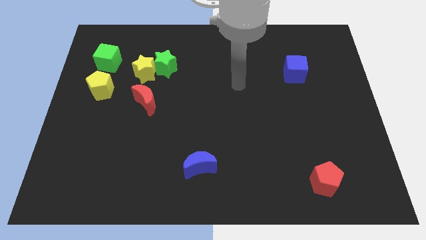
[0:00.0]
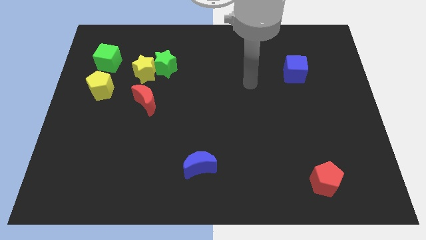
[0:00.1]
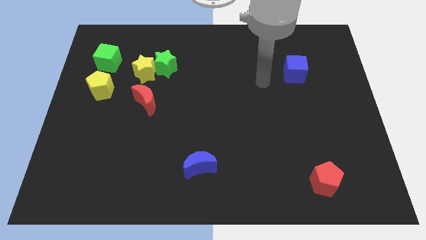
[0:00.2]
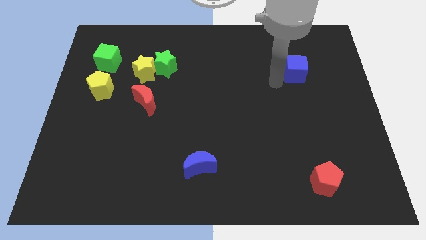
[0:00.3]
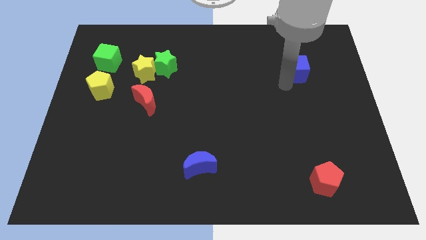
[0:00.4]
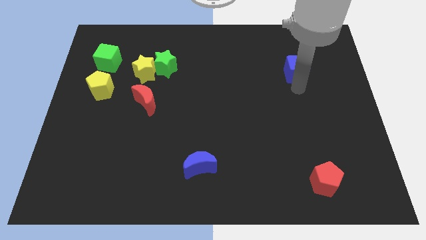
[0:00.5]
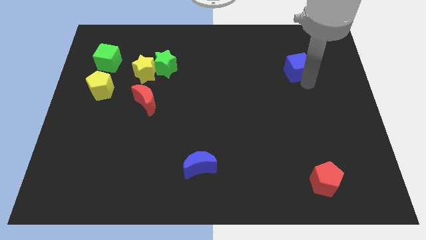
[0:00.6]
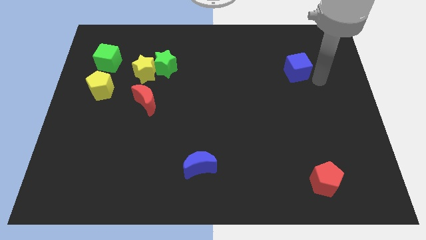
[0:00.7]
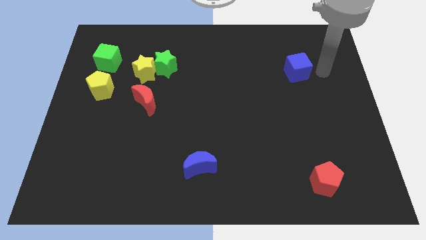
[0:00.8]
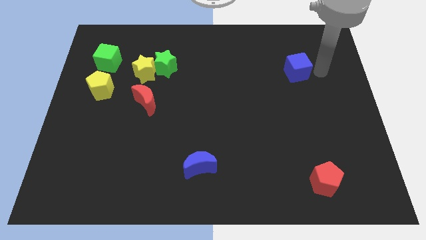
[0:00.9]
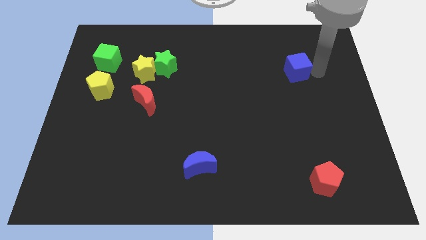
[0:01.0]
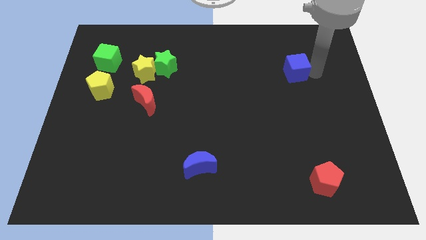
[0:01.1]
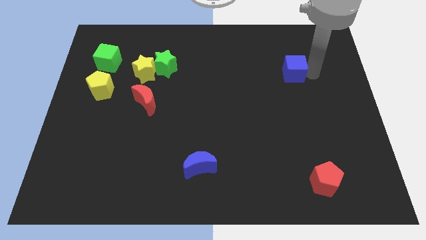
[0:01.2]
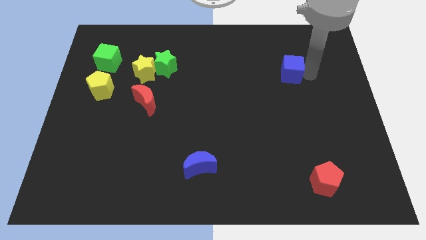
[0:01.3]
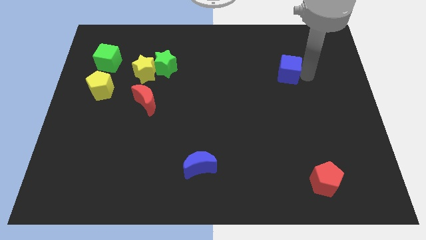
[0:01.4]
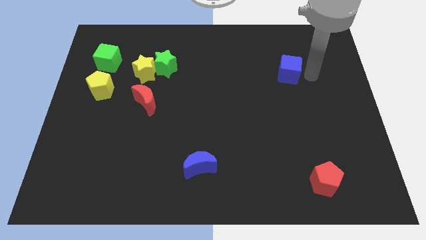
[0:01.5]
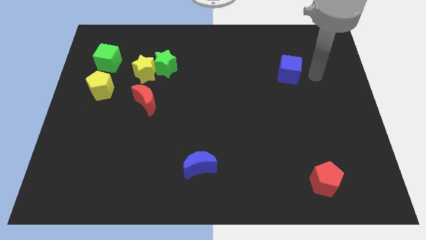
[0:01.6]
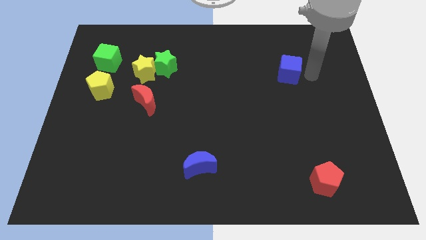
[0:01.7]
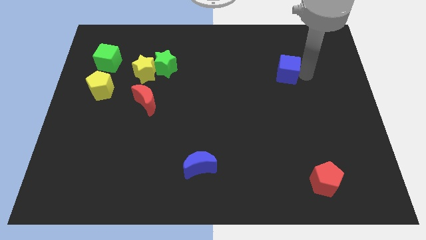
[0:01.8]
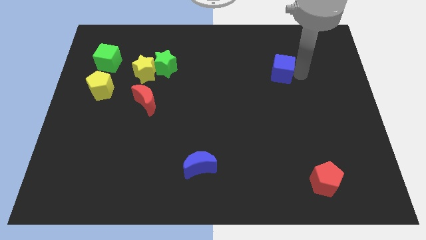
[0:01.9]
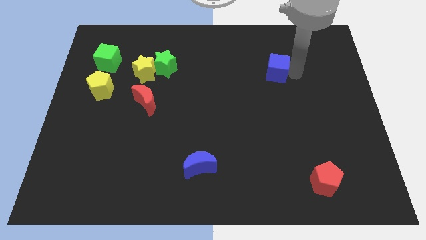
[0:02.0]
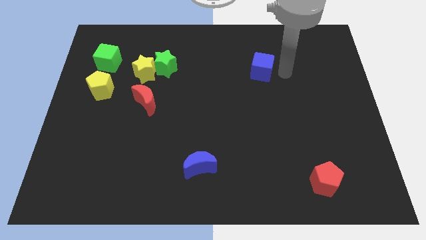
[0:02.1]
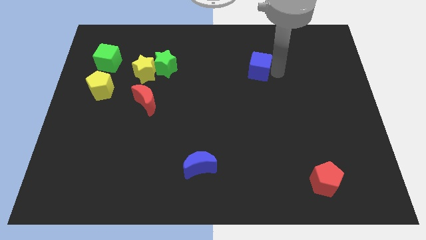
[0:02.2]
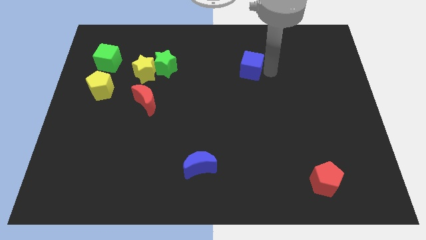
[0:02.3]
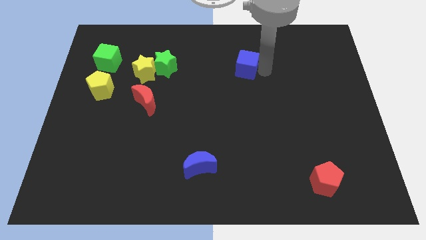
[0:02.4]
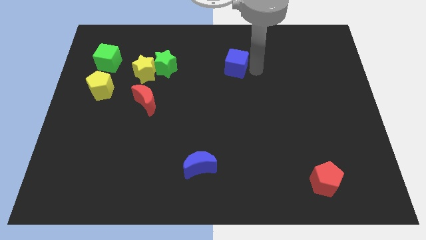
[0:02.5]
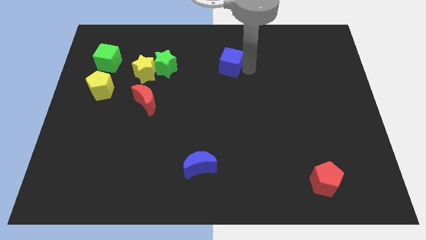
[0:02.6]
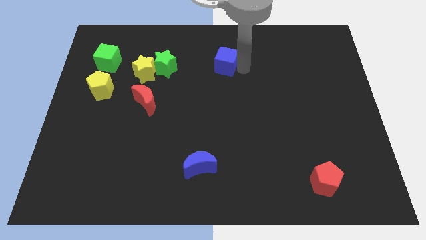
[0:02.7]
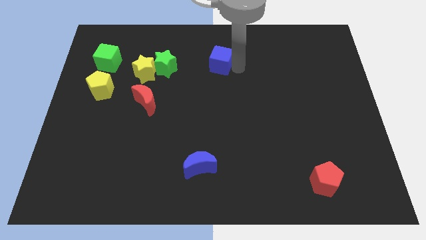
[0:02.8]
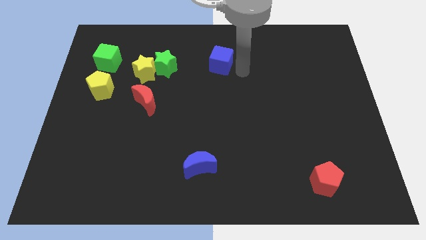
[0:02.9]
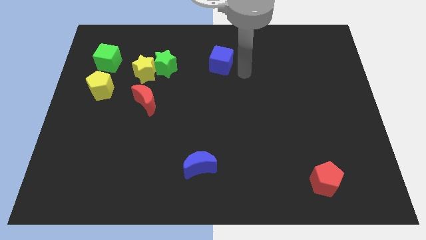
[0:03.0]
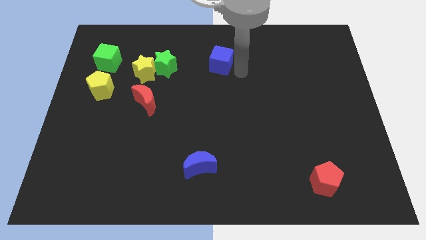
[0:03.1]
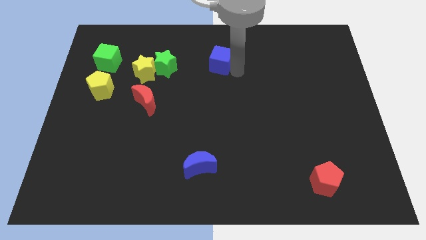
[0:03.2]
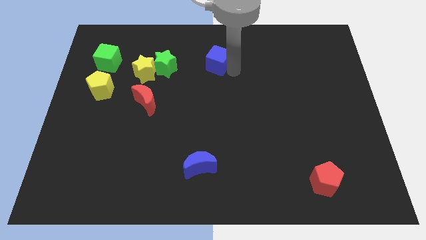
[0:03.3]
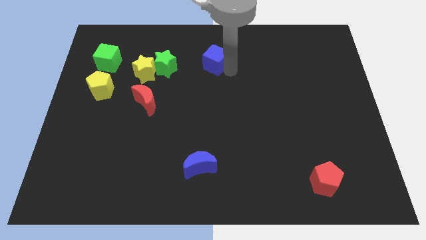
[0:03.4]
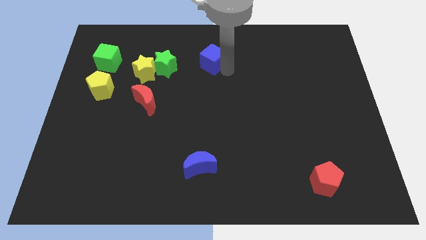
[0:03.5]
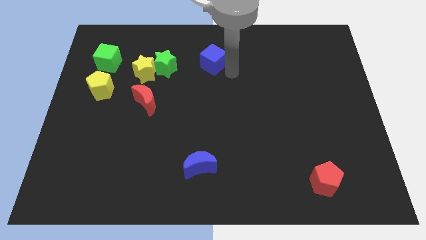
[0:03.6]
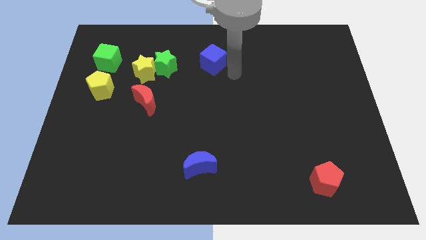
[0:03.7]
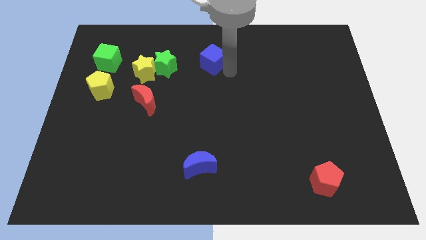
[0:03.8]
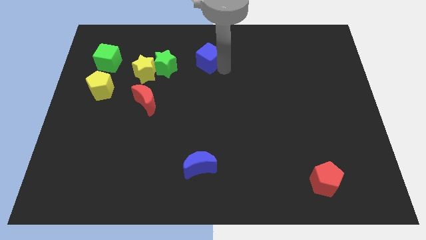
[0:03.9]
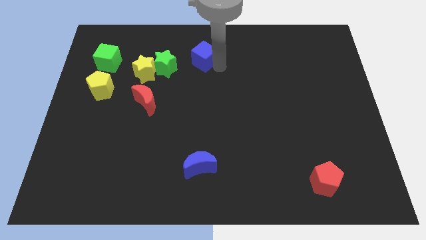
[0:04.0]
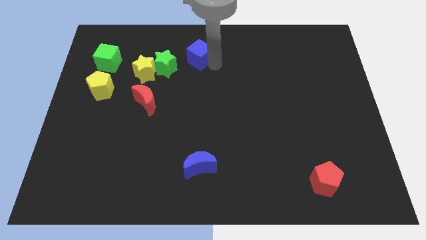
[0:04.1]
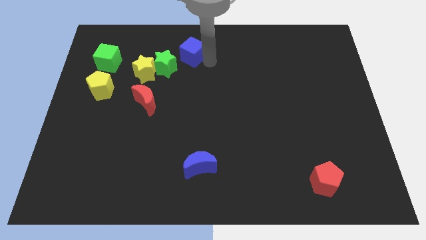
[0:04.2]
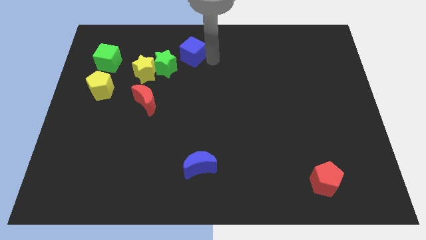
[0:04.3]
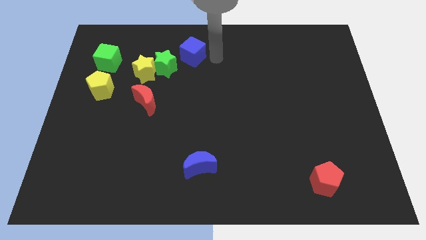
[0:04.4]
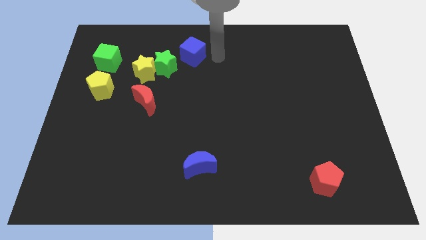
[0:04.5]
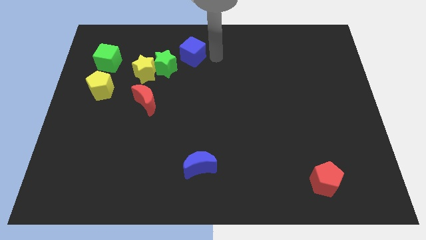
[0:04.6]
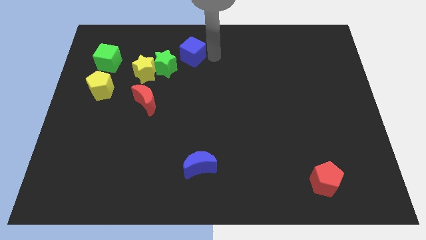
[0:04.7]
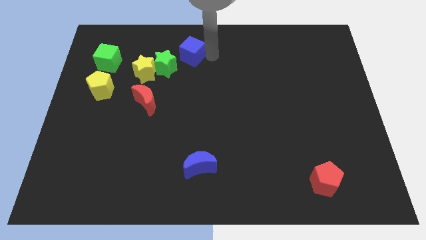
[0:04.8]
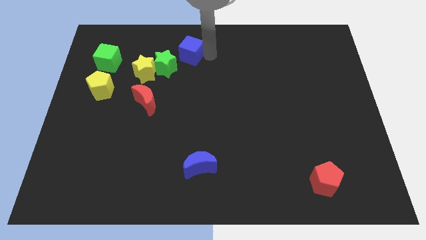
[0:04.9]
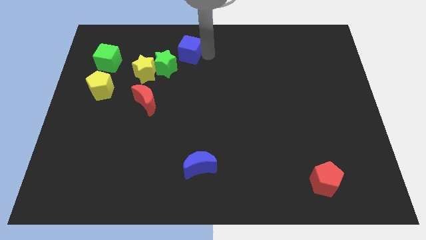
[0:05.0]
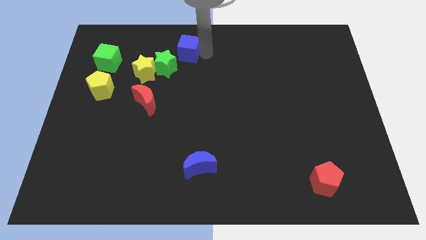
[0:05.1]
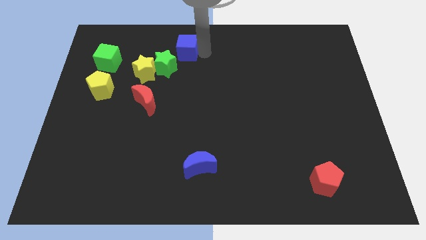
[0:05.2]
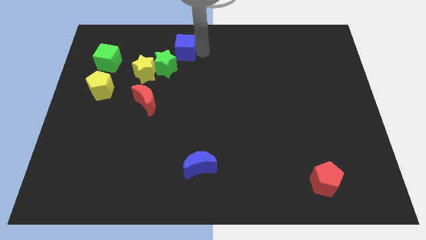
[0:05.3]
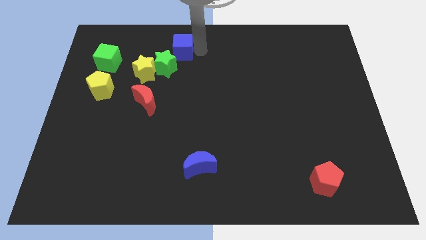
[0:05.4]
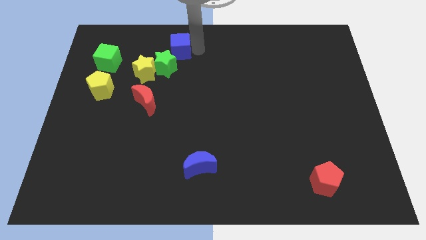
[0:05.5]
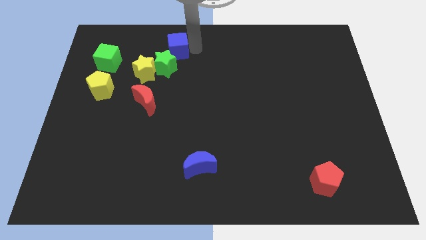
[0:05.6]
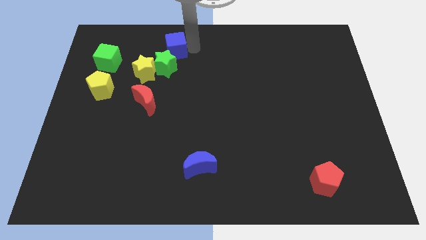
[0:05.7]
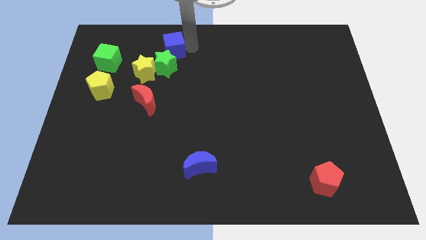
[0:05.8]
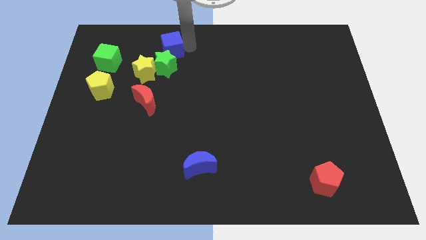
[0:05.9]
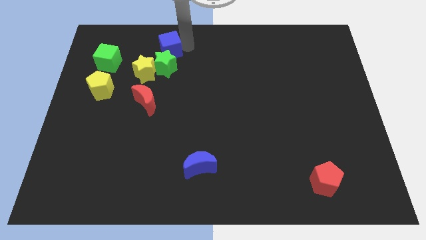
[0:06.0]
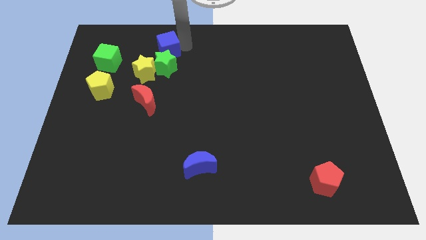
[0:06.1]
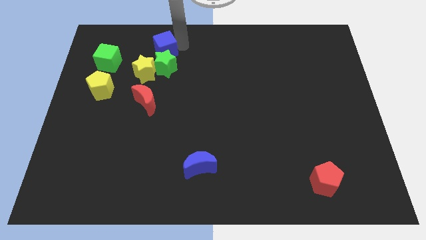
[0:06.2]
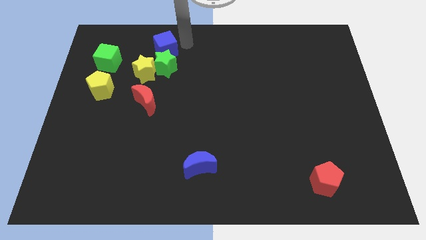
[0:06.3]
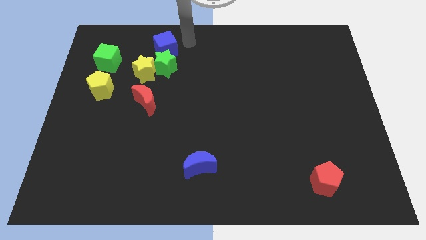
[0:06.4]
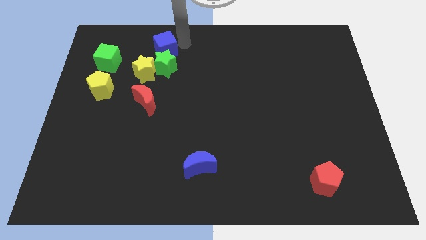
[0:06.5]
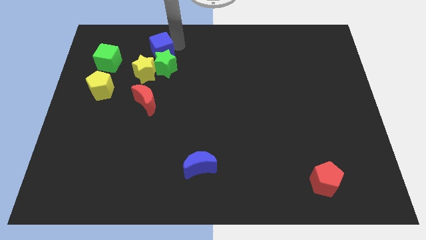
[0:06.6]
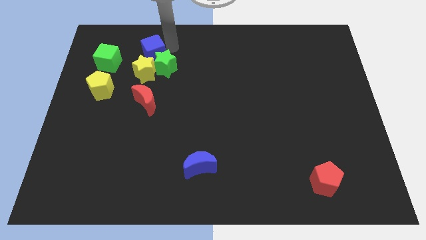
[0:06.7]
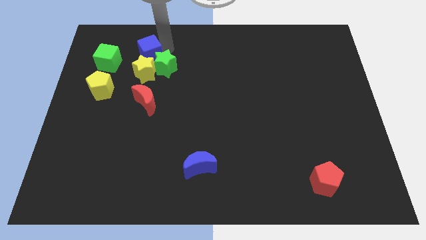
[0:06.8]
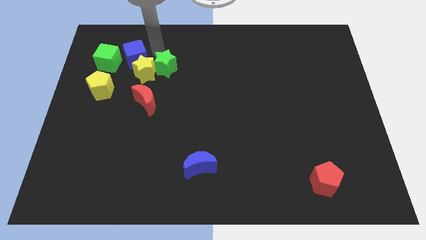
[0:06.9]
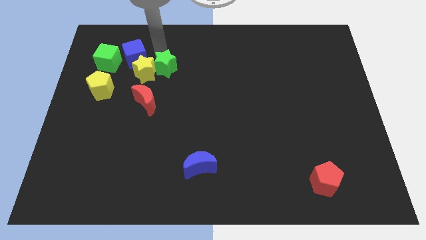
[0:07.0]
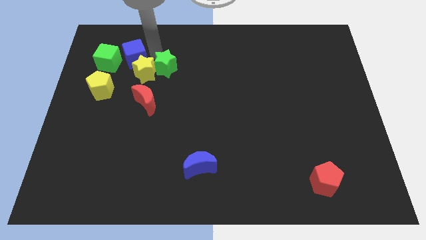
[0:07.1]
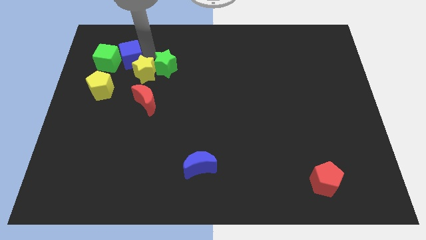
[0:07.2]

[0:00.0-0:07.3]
slide the blue cube towards the green cube
